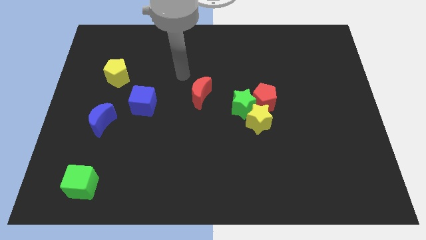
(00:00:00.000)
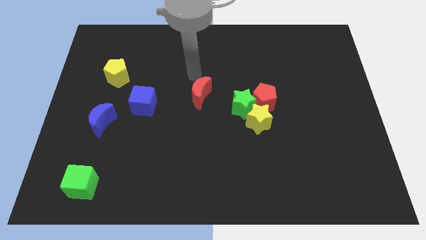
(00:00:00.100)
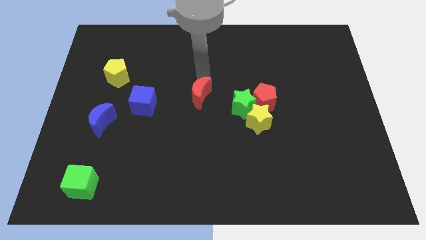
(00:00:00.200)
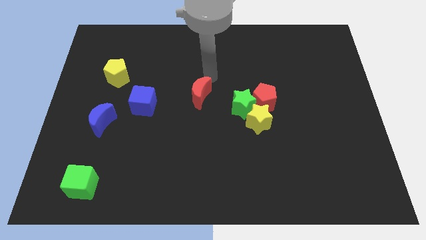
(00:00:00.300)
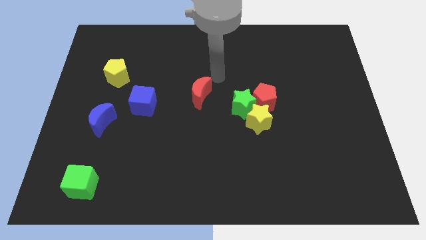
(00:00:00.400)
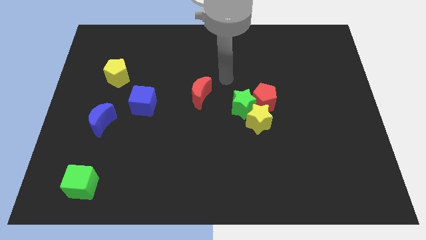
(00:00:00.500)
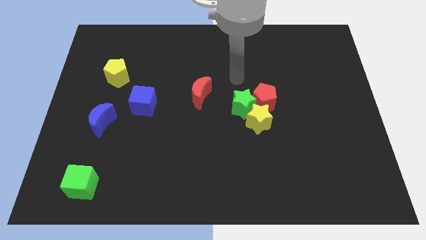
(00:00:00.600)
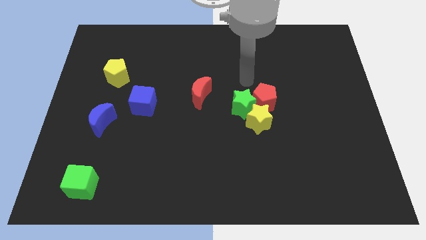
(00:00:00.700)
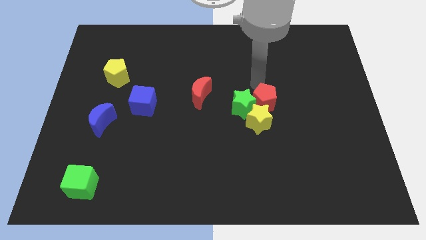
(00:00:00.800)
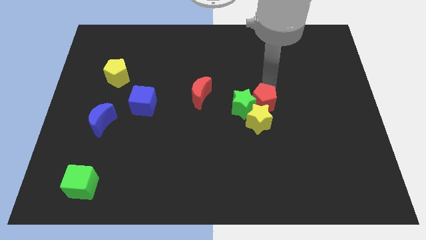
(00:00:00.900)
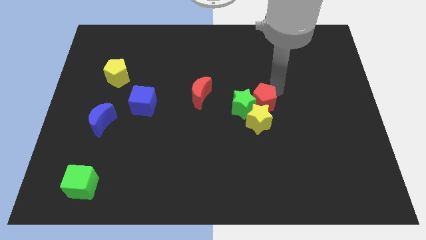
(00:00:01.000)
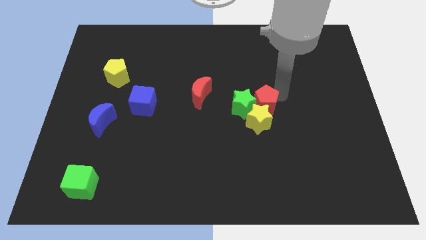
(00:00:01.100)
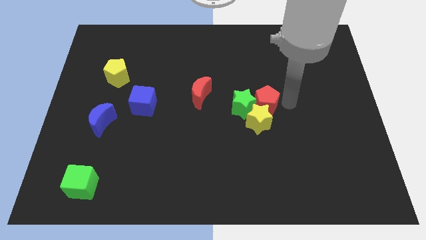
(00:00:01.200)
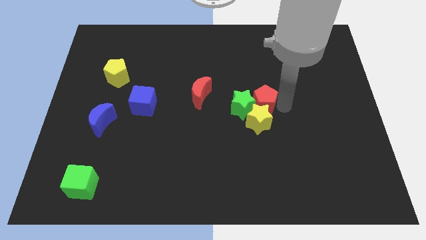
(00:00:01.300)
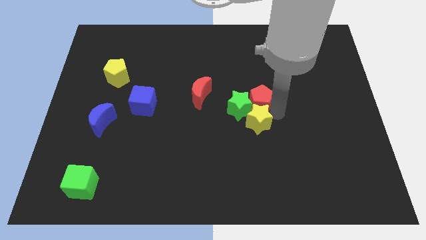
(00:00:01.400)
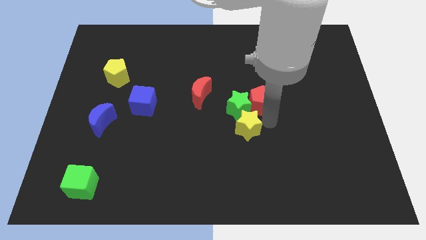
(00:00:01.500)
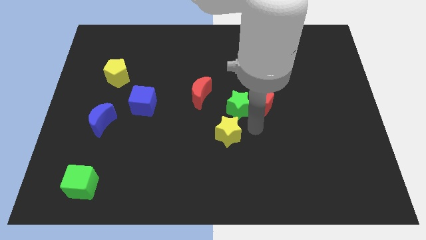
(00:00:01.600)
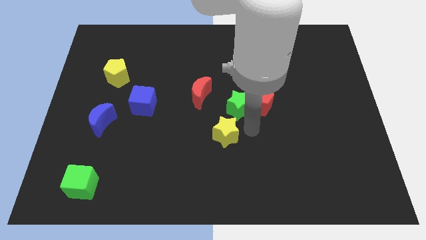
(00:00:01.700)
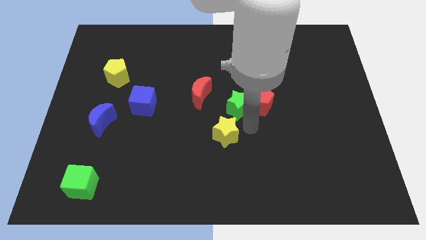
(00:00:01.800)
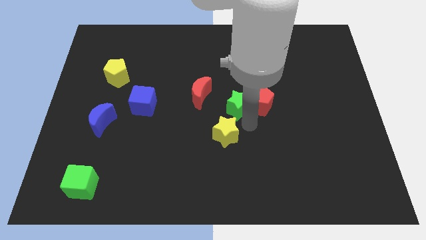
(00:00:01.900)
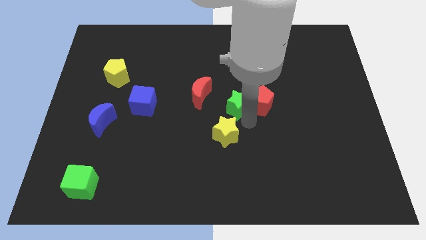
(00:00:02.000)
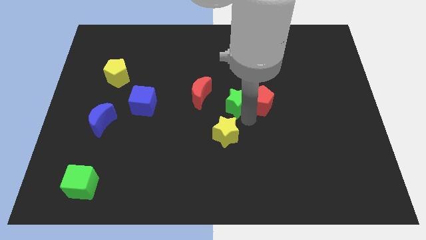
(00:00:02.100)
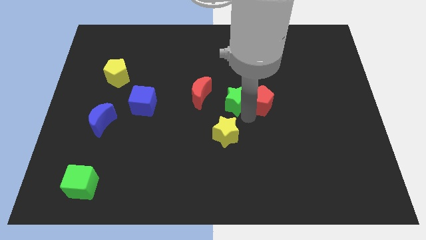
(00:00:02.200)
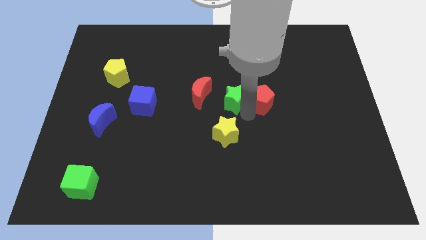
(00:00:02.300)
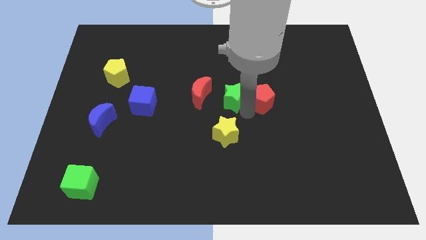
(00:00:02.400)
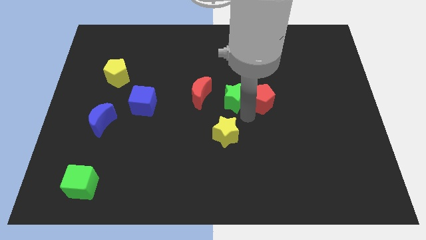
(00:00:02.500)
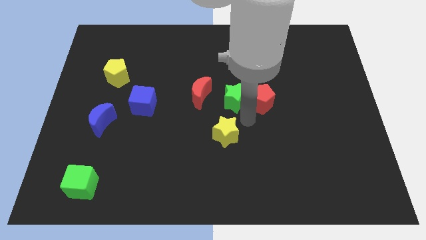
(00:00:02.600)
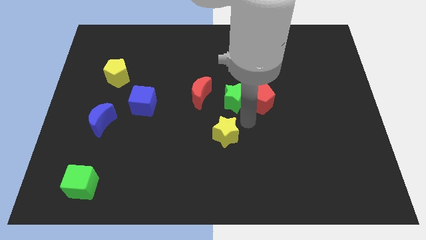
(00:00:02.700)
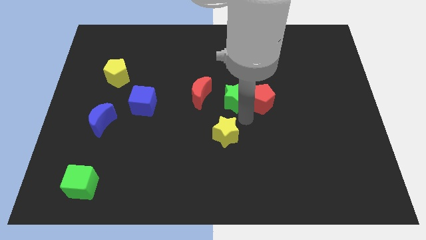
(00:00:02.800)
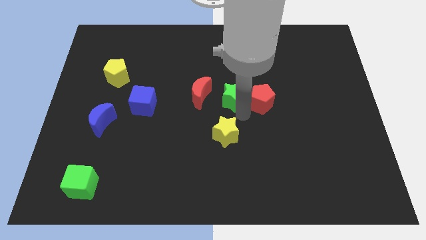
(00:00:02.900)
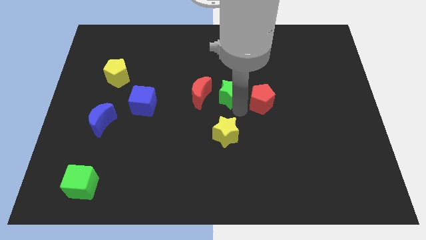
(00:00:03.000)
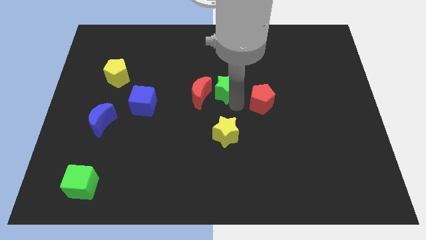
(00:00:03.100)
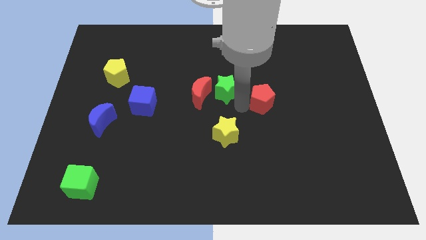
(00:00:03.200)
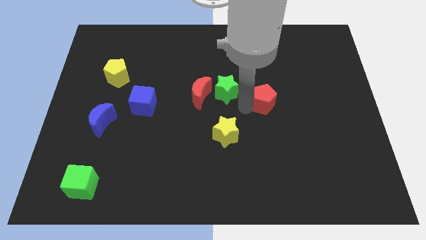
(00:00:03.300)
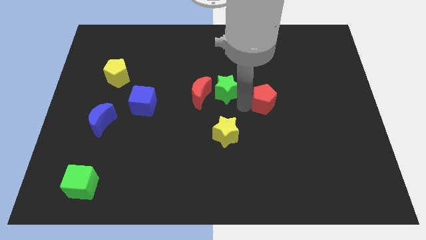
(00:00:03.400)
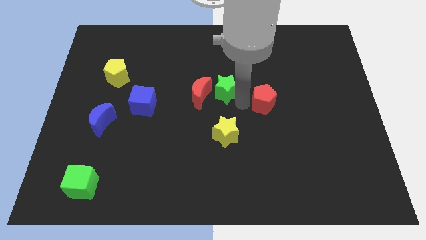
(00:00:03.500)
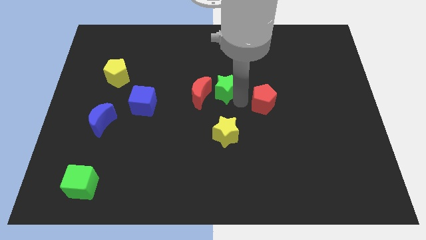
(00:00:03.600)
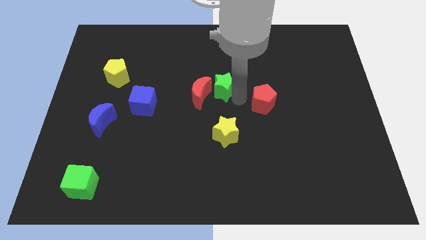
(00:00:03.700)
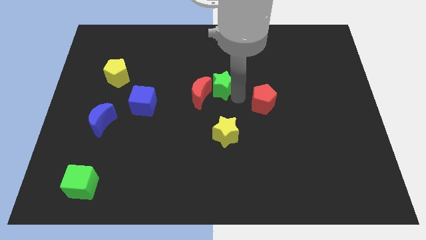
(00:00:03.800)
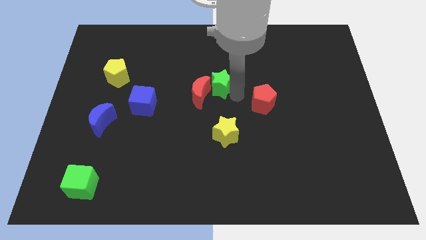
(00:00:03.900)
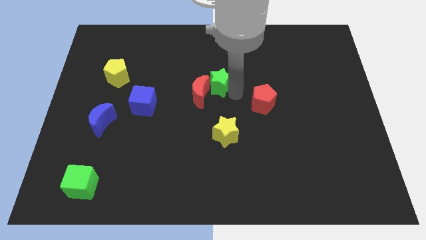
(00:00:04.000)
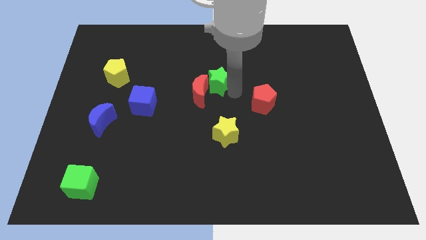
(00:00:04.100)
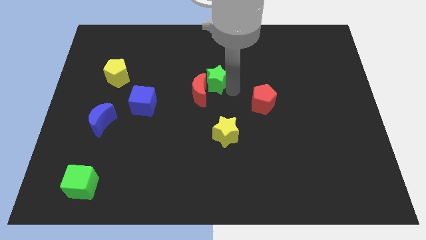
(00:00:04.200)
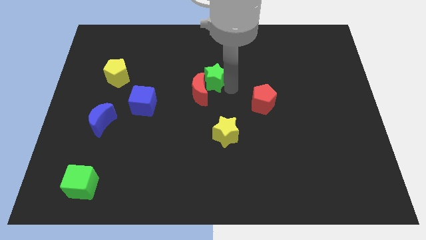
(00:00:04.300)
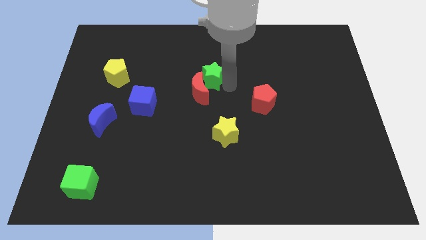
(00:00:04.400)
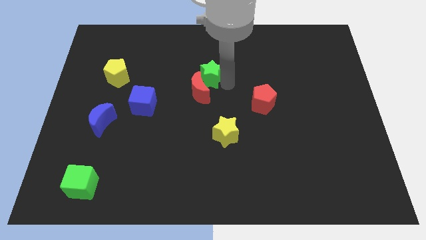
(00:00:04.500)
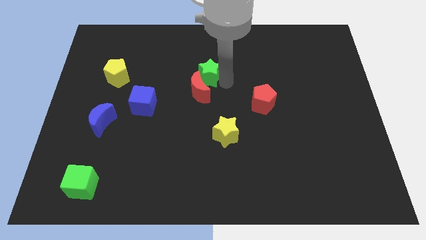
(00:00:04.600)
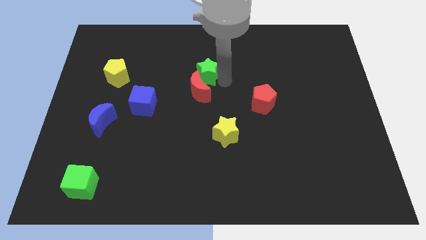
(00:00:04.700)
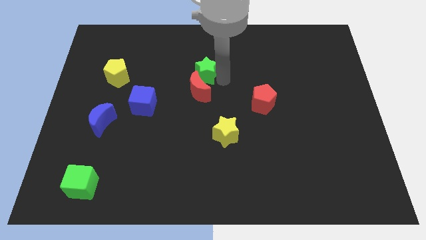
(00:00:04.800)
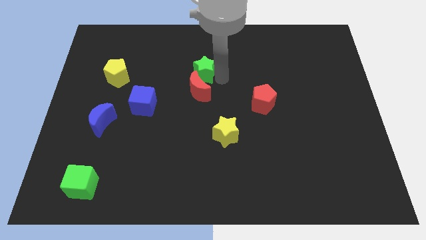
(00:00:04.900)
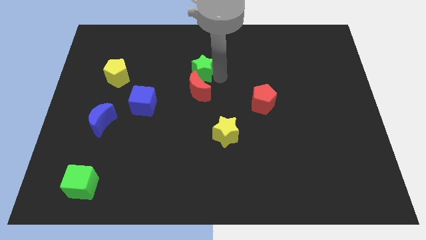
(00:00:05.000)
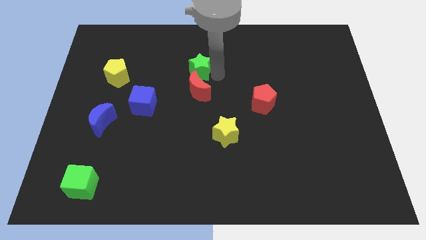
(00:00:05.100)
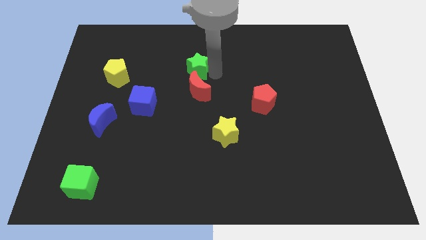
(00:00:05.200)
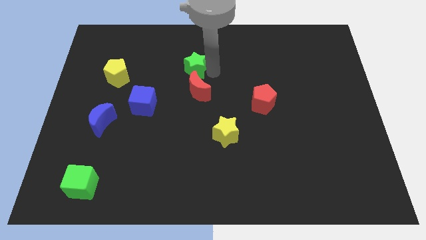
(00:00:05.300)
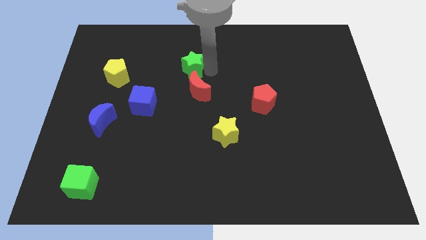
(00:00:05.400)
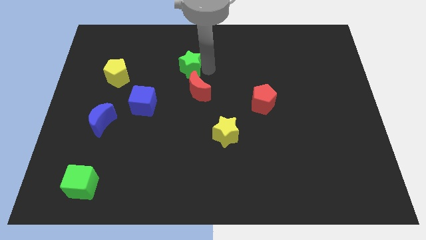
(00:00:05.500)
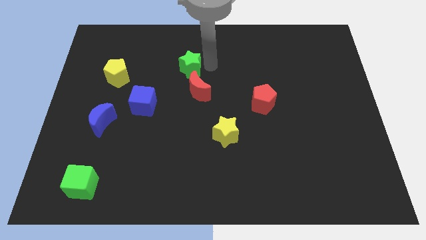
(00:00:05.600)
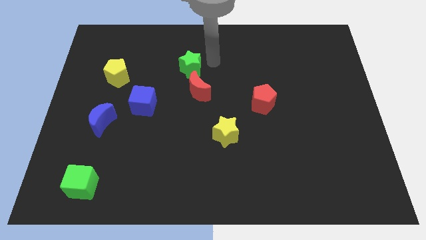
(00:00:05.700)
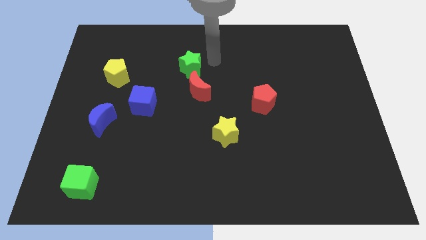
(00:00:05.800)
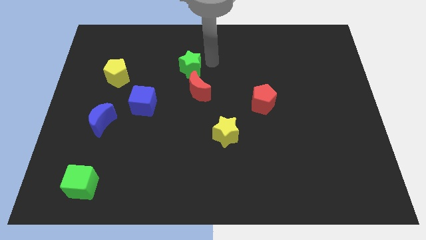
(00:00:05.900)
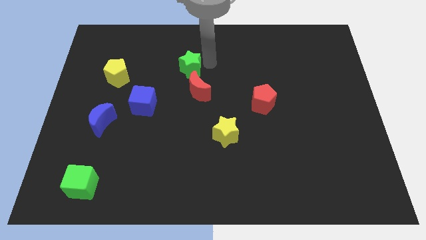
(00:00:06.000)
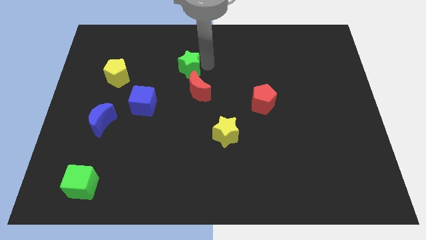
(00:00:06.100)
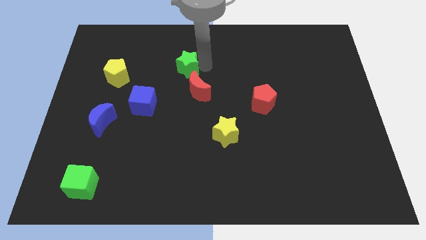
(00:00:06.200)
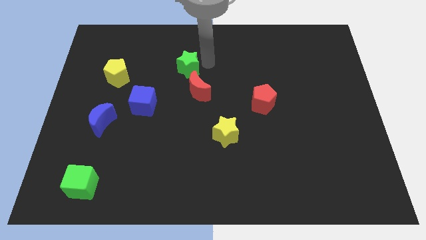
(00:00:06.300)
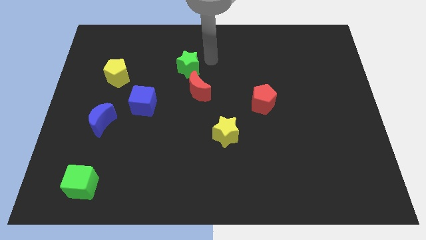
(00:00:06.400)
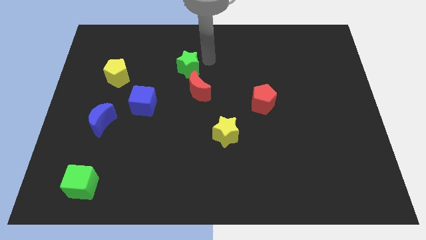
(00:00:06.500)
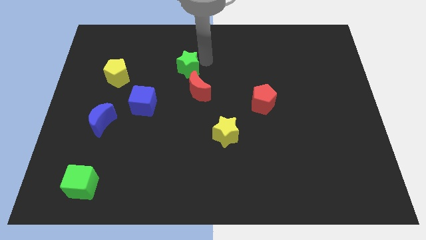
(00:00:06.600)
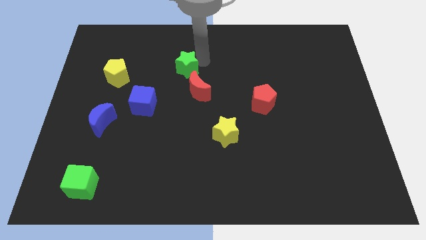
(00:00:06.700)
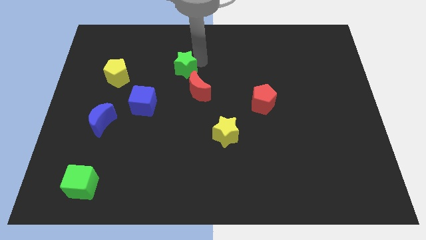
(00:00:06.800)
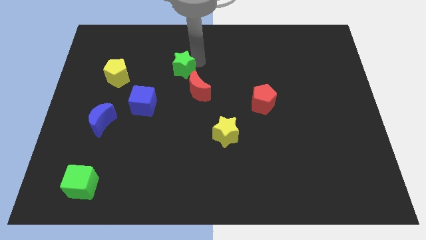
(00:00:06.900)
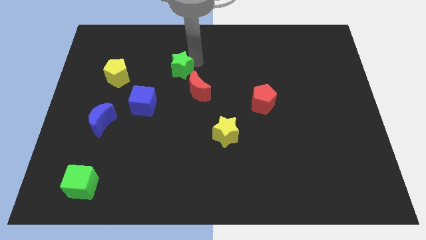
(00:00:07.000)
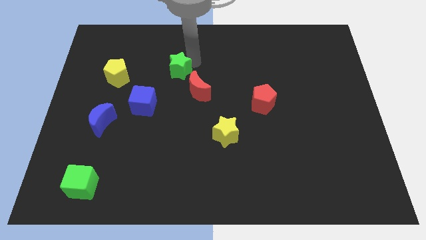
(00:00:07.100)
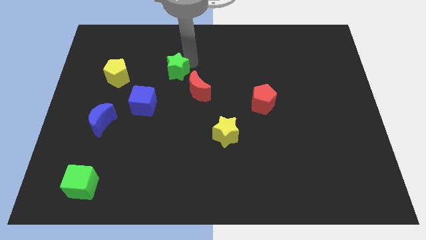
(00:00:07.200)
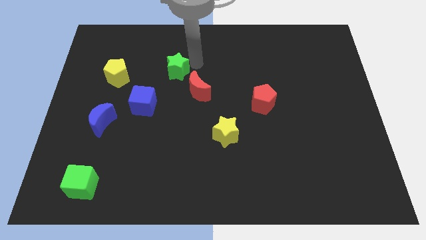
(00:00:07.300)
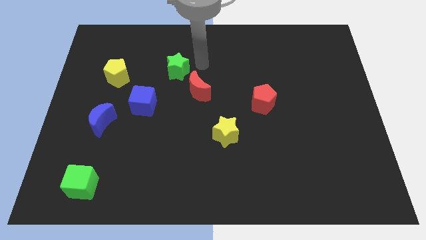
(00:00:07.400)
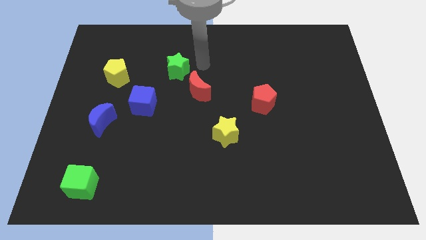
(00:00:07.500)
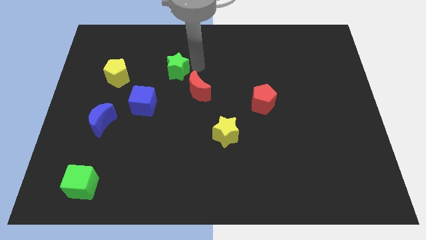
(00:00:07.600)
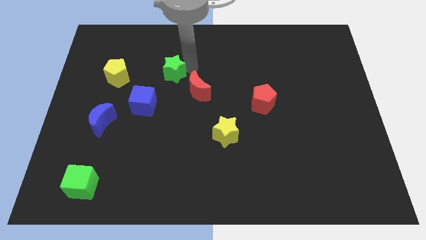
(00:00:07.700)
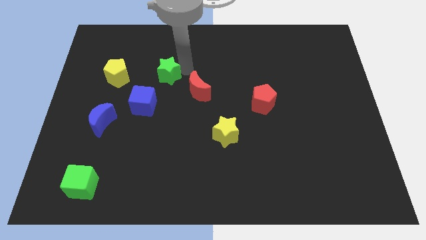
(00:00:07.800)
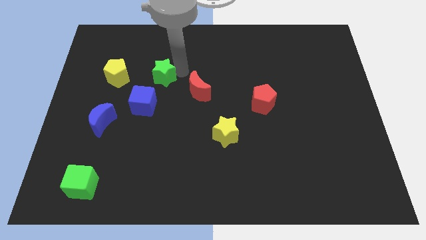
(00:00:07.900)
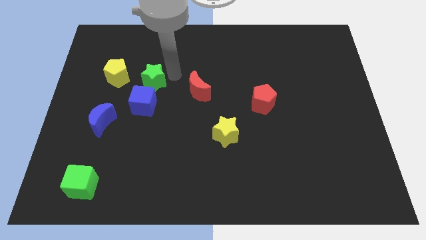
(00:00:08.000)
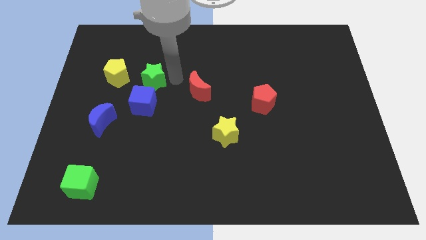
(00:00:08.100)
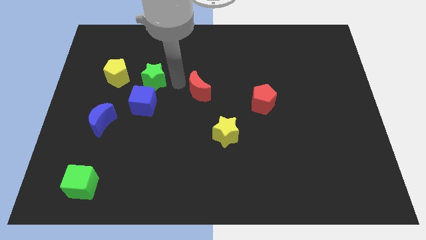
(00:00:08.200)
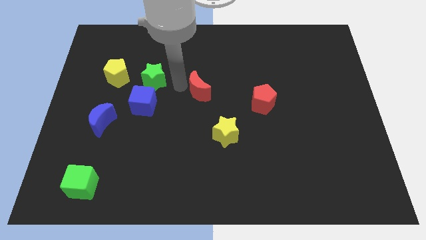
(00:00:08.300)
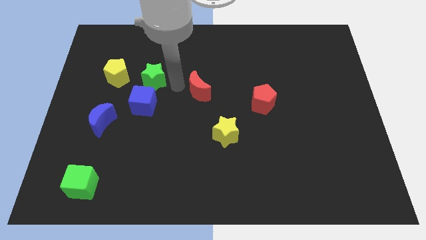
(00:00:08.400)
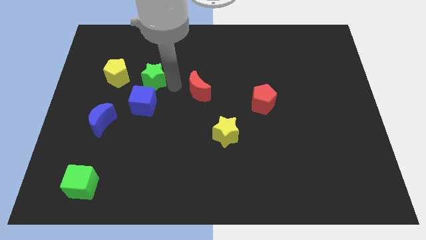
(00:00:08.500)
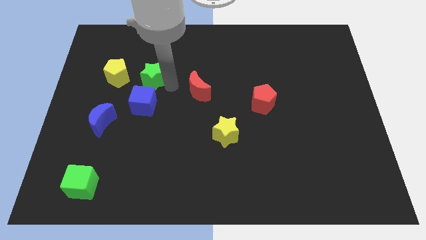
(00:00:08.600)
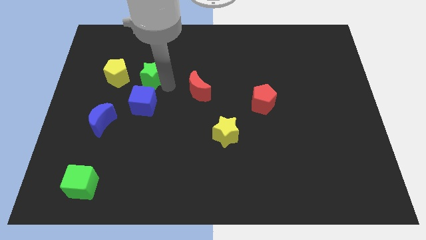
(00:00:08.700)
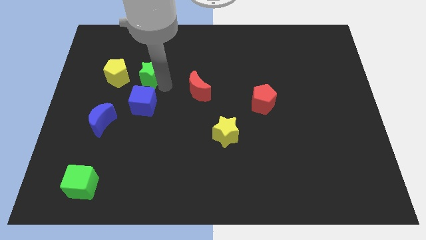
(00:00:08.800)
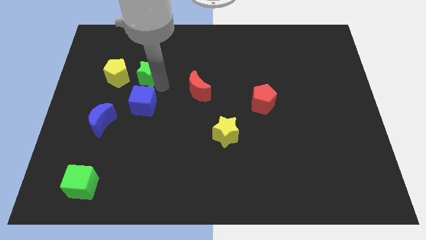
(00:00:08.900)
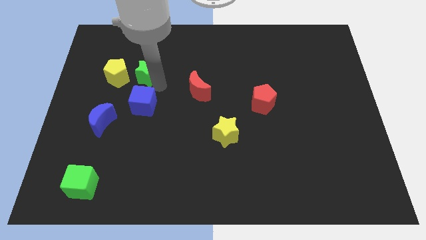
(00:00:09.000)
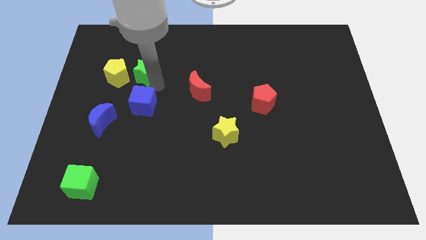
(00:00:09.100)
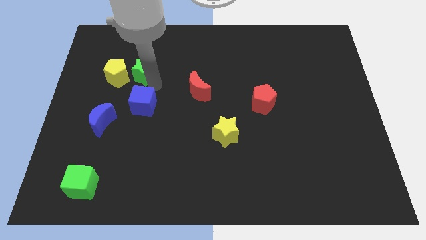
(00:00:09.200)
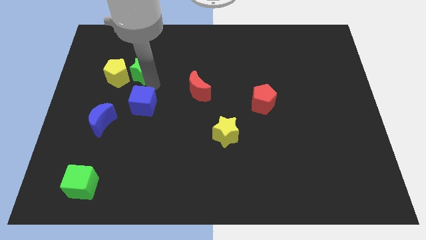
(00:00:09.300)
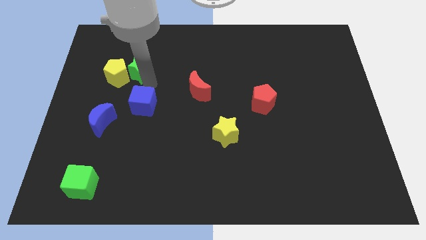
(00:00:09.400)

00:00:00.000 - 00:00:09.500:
slide the green star next to the yellow pentagon
